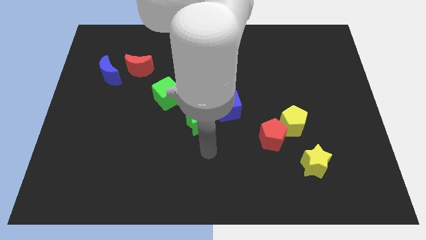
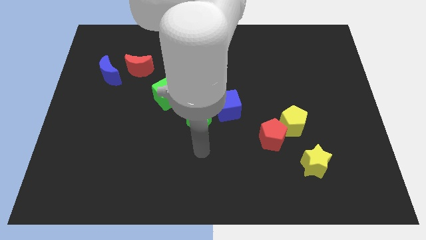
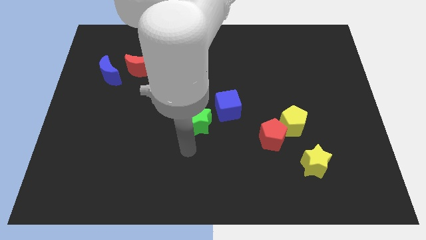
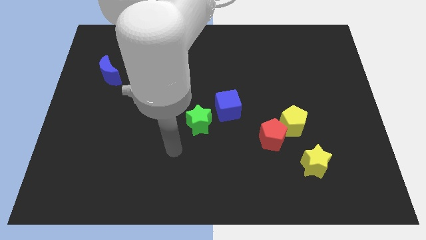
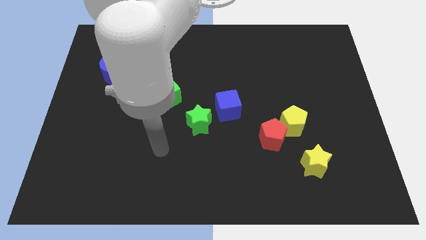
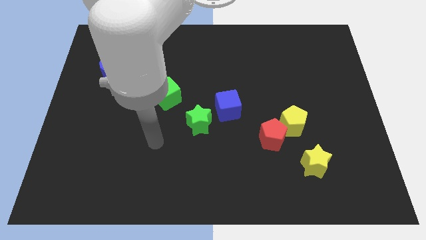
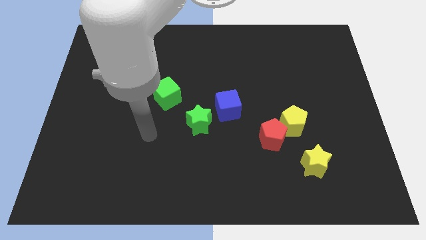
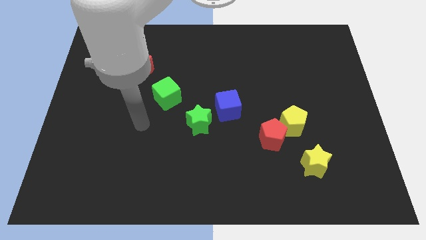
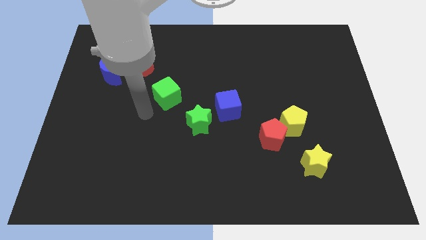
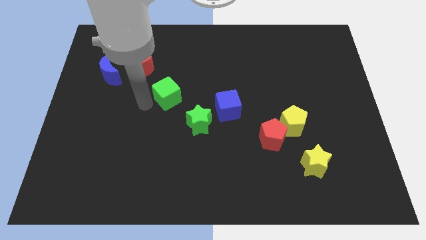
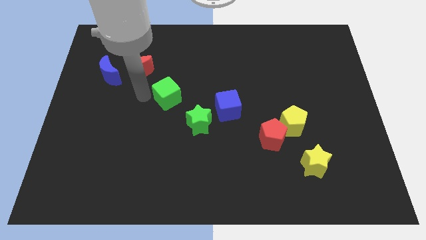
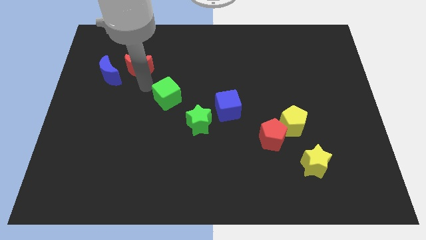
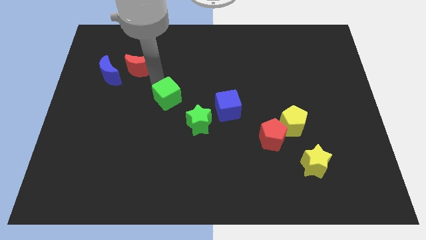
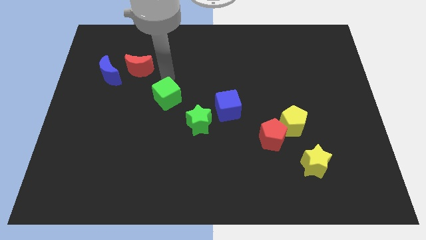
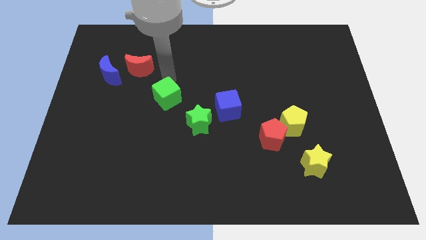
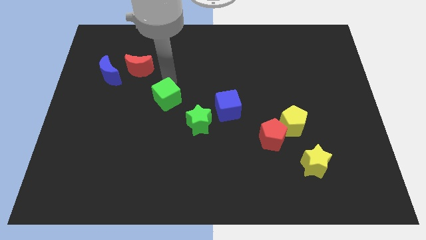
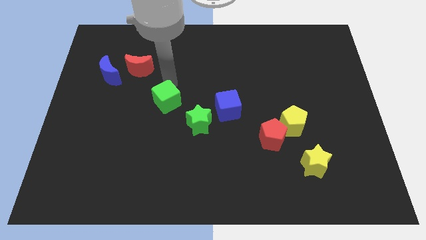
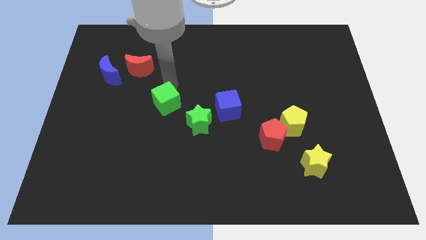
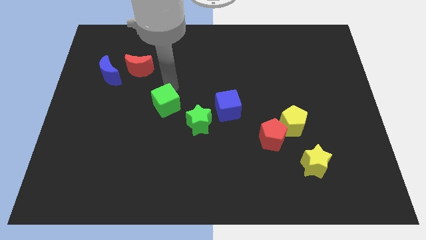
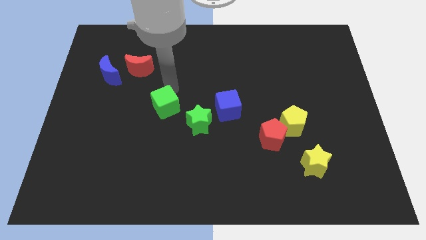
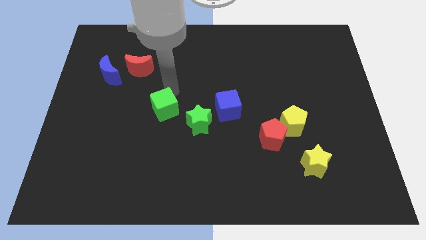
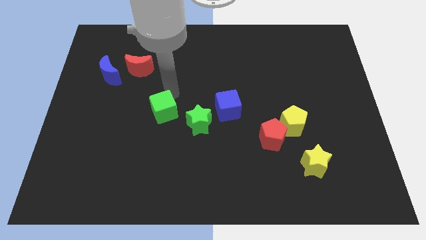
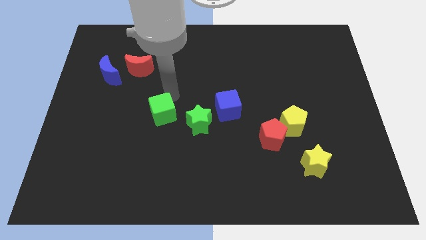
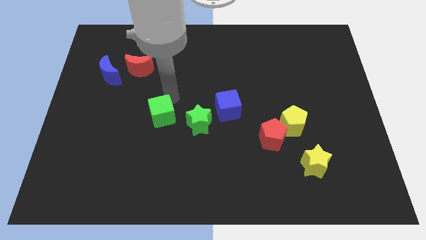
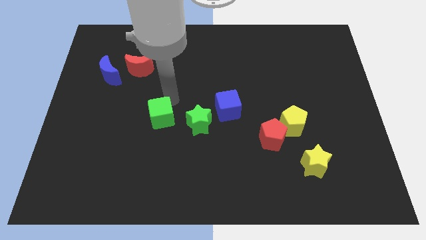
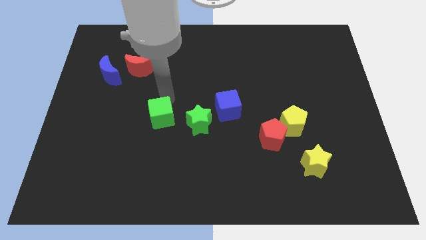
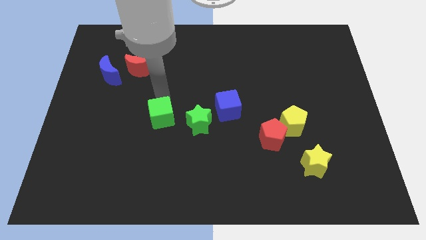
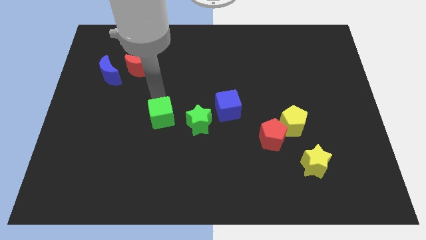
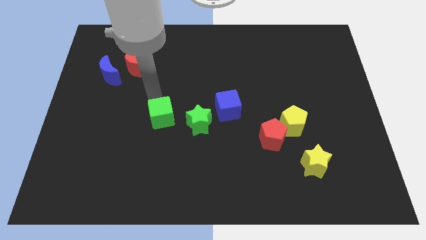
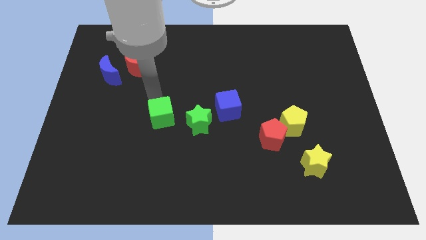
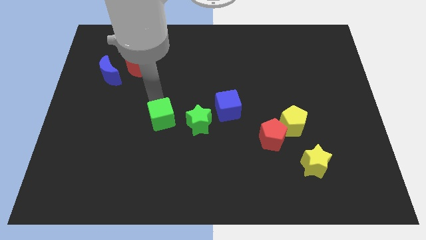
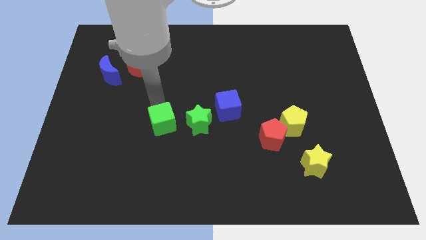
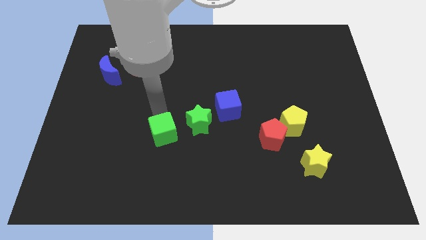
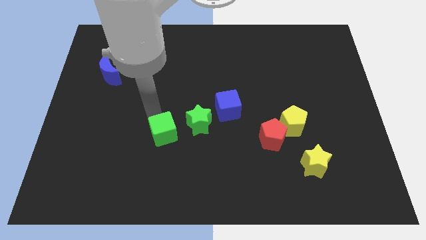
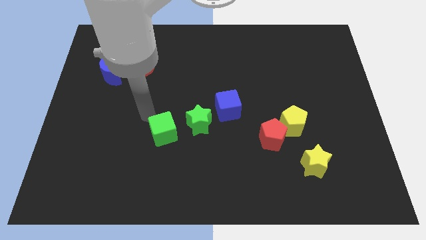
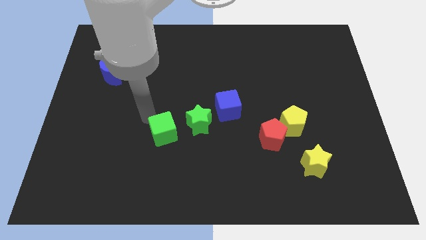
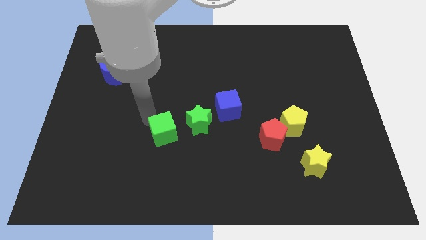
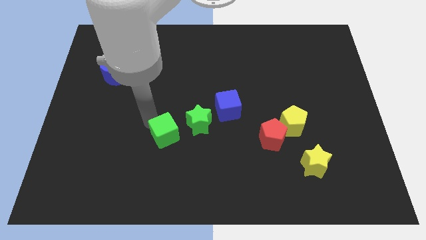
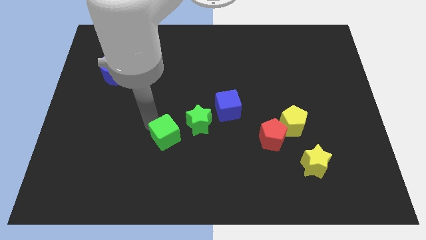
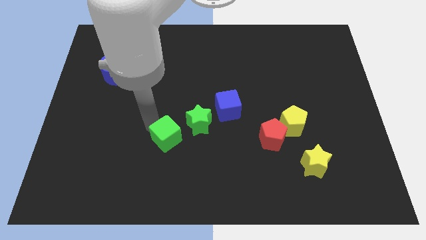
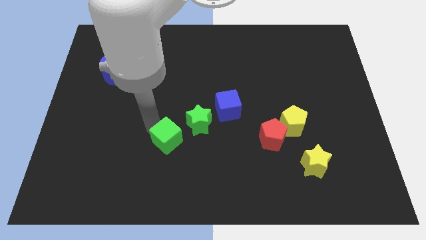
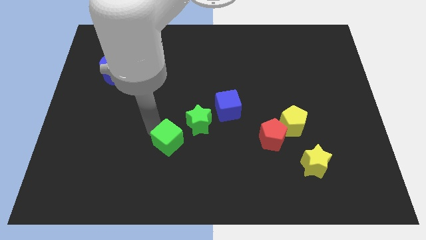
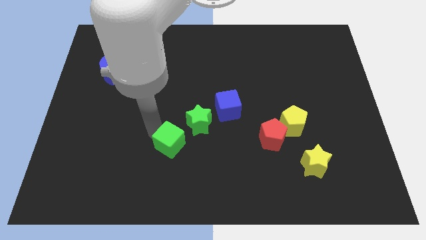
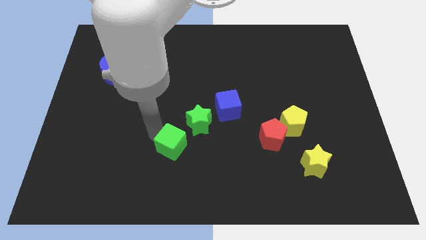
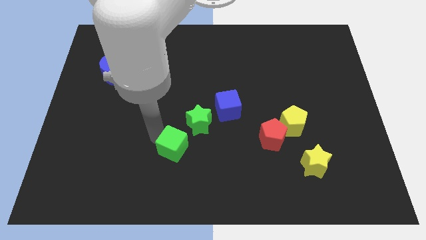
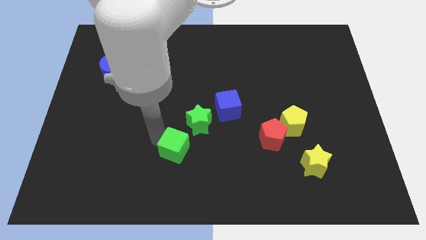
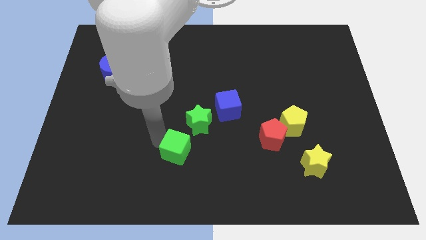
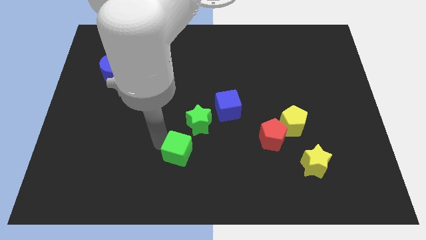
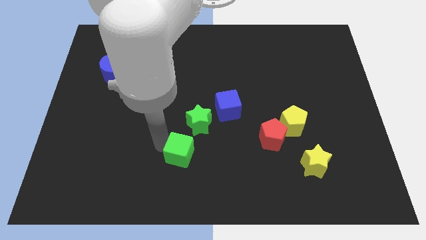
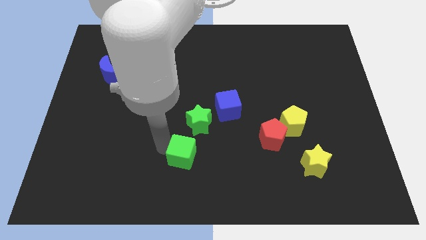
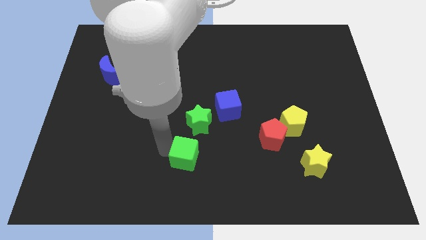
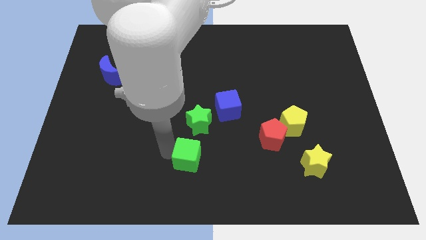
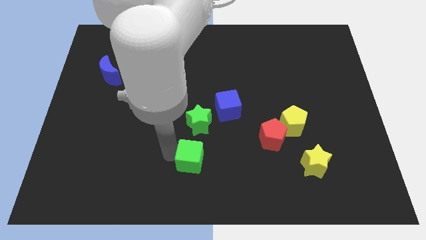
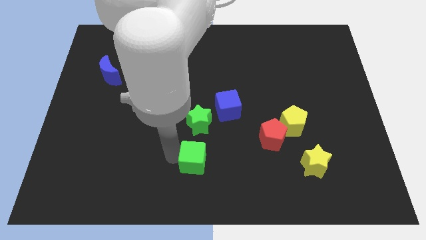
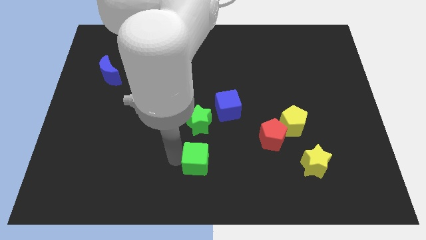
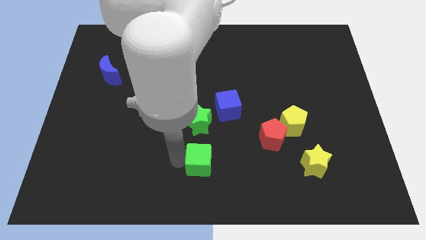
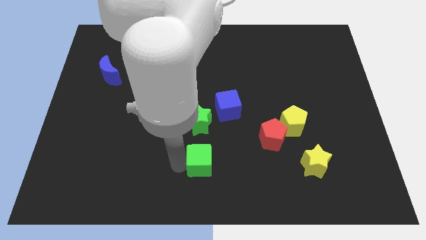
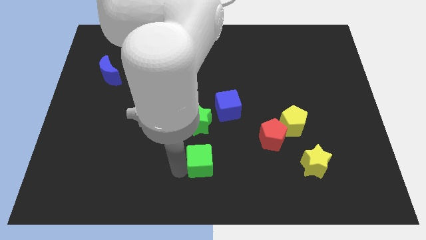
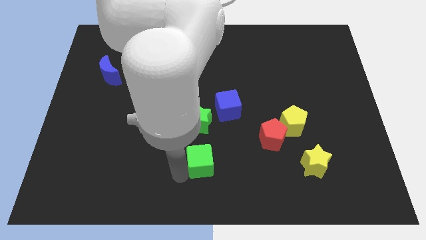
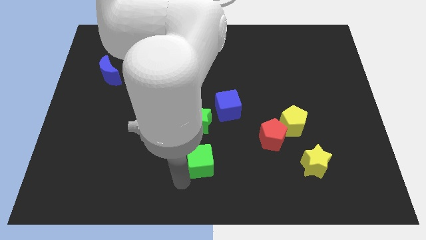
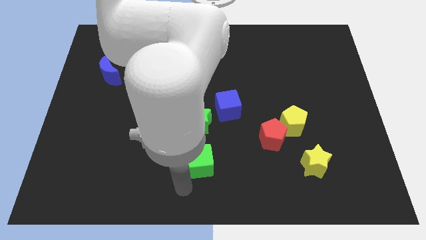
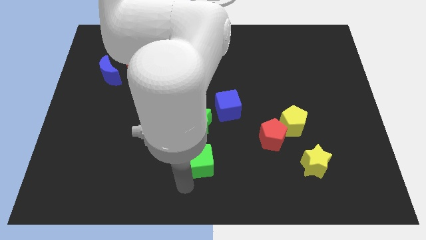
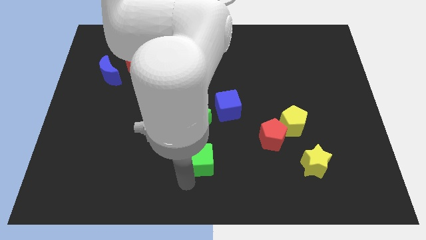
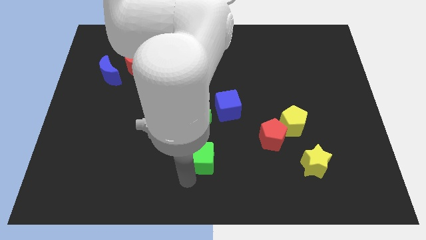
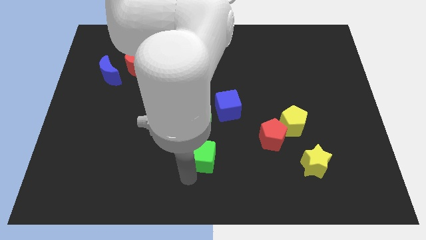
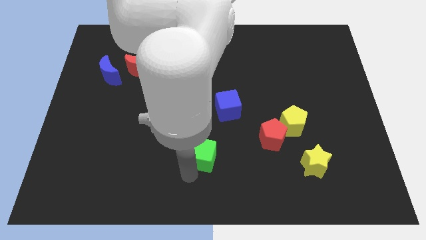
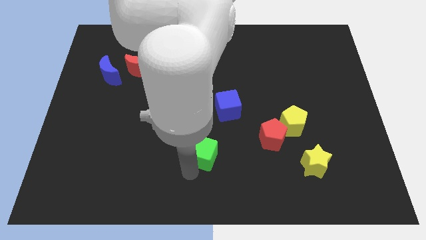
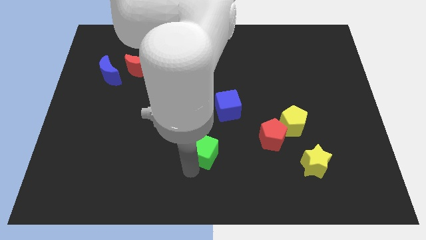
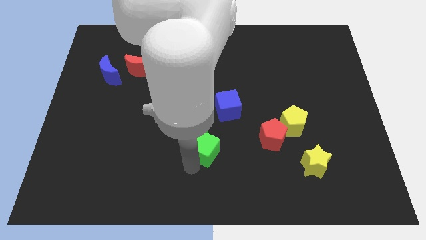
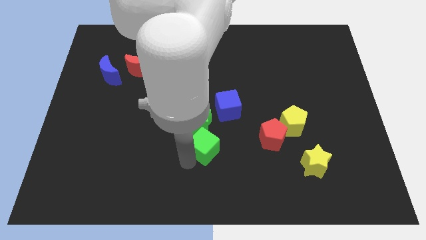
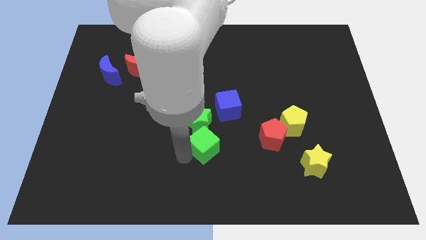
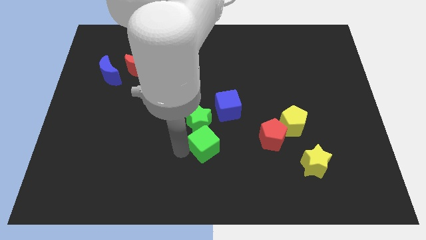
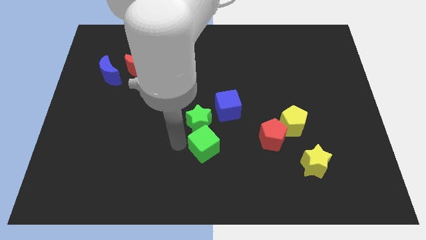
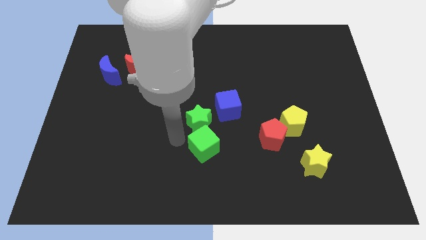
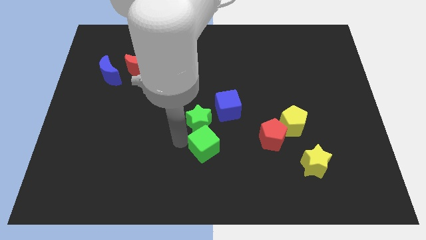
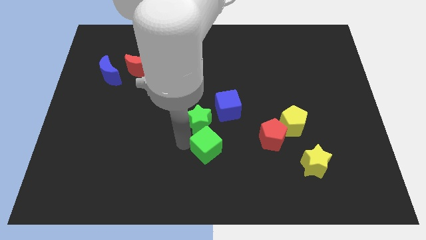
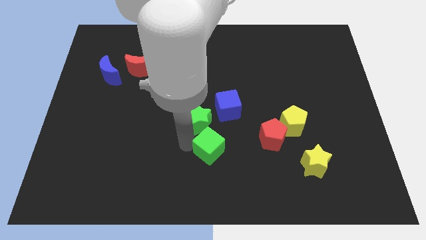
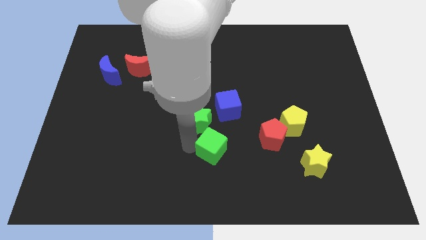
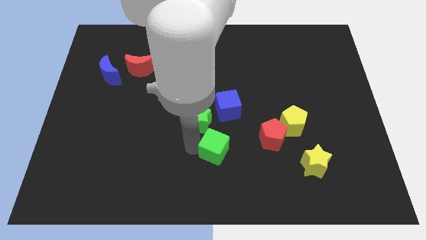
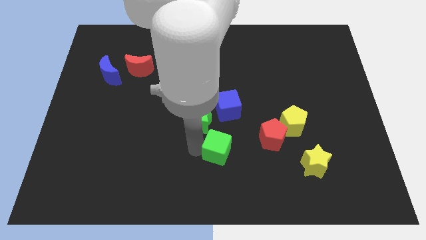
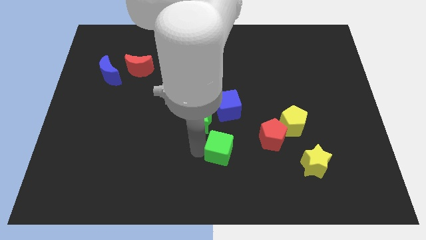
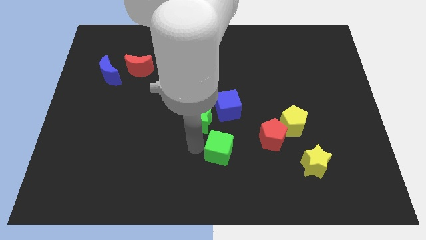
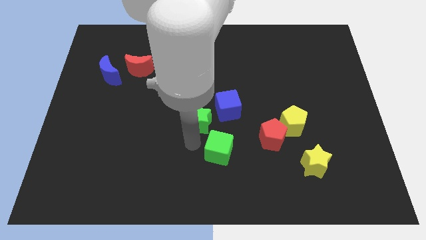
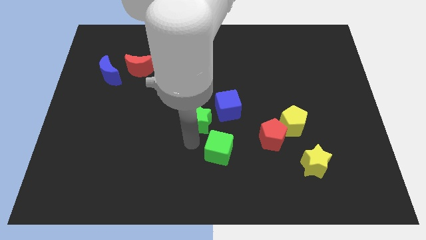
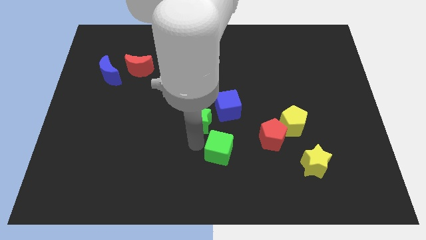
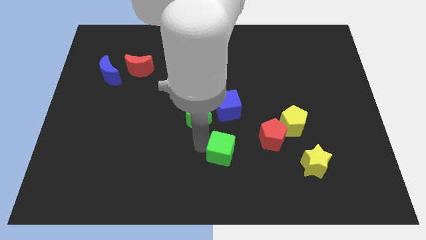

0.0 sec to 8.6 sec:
move the green cube down and then to the right
